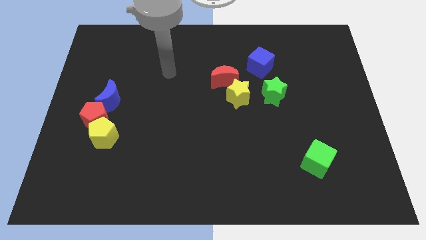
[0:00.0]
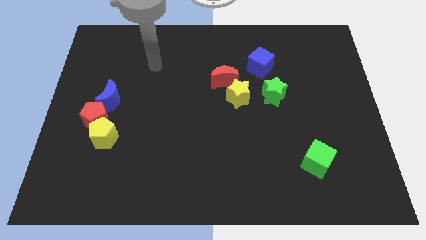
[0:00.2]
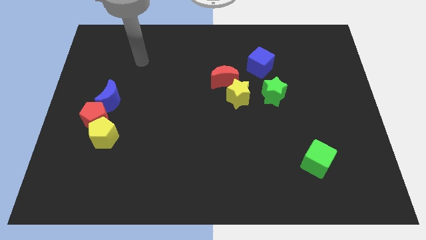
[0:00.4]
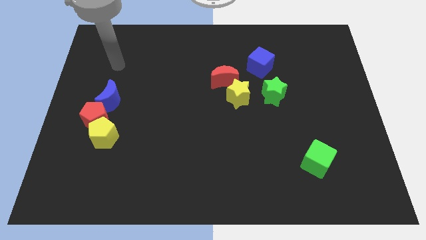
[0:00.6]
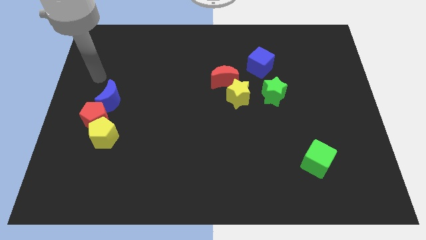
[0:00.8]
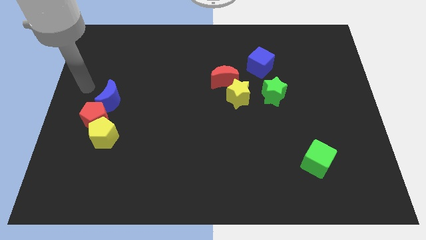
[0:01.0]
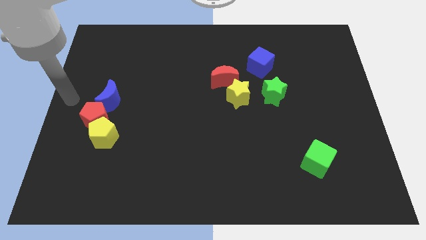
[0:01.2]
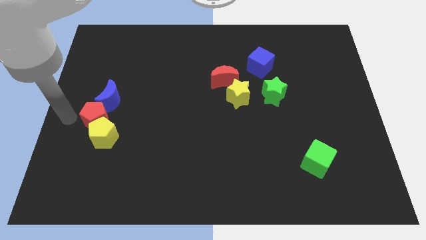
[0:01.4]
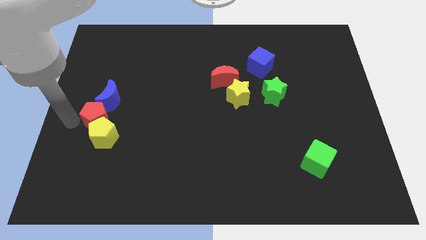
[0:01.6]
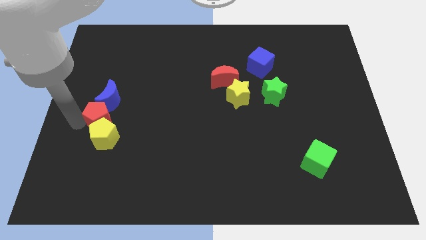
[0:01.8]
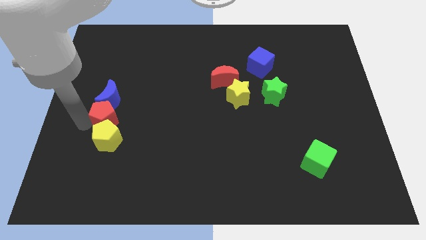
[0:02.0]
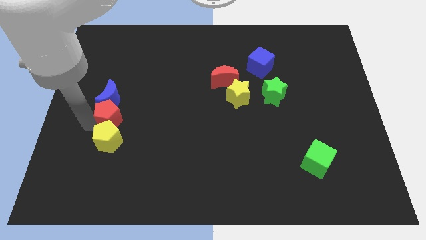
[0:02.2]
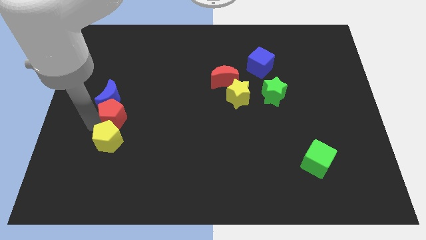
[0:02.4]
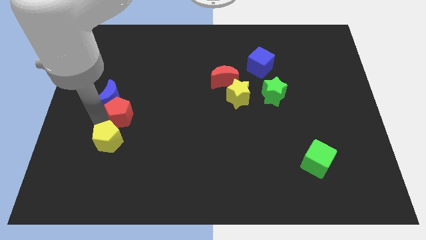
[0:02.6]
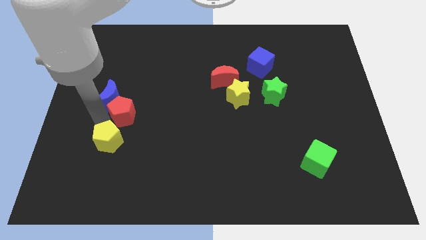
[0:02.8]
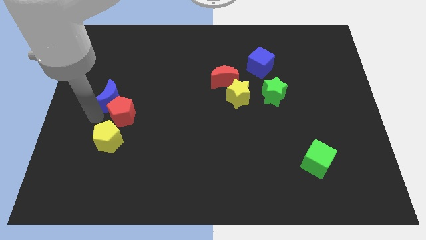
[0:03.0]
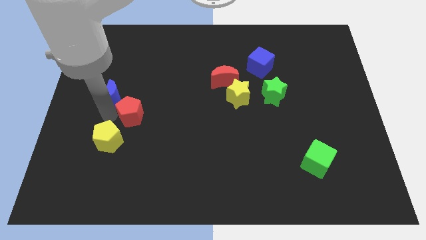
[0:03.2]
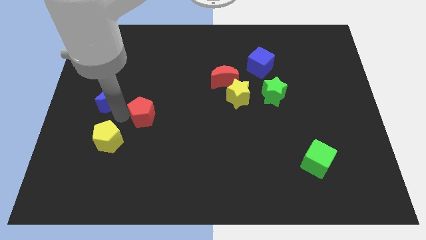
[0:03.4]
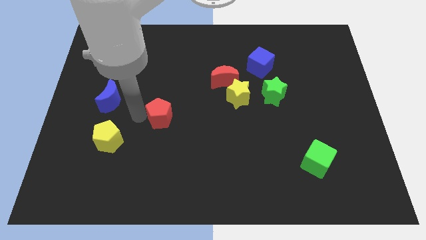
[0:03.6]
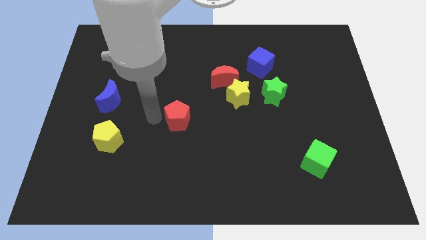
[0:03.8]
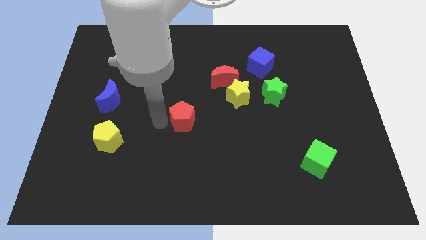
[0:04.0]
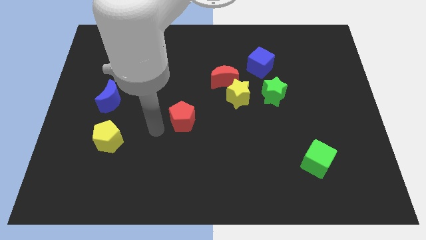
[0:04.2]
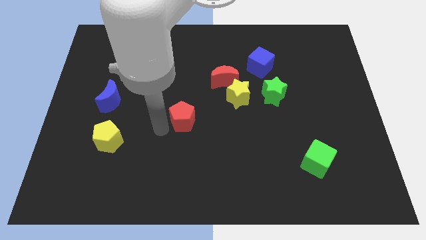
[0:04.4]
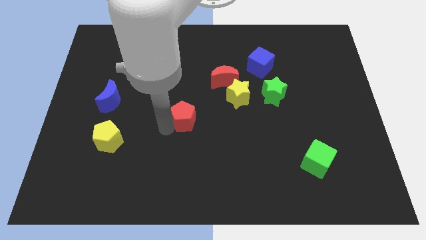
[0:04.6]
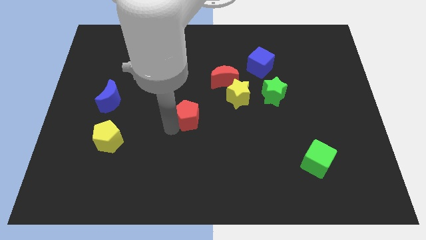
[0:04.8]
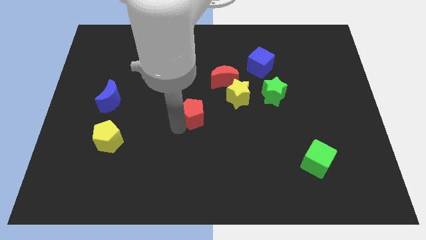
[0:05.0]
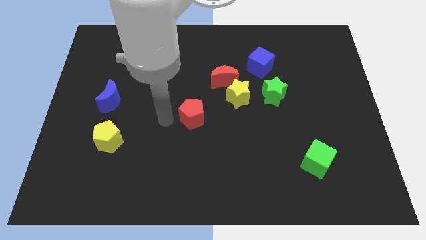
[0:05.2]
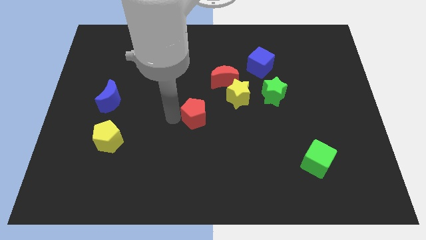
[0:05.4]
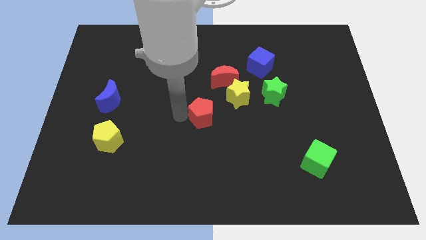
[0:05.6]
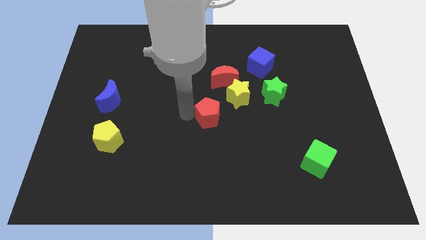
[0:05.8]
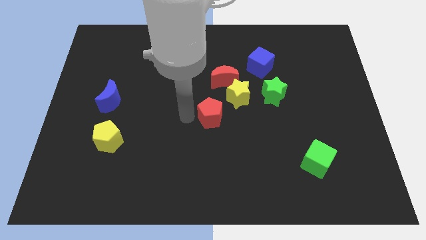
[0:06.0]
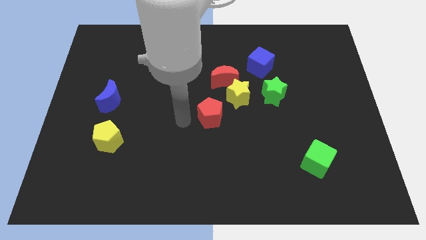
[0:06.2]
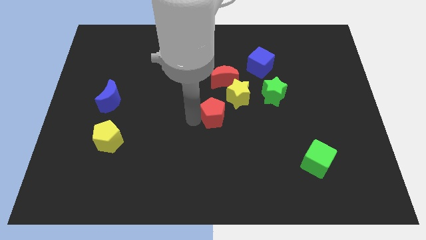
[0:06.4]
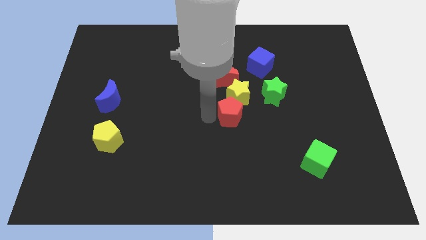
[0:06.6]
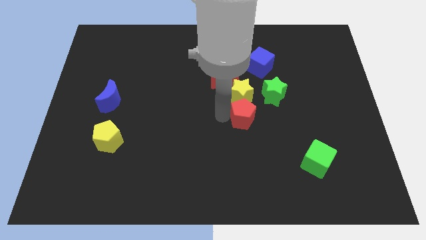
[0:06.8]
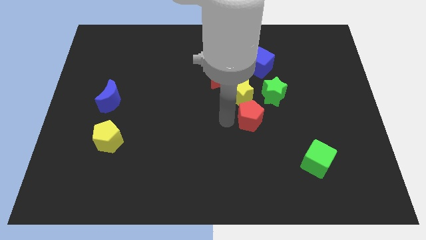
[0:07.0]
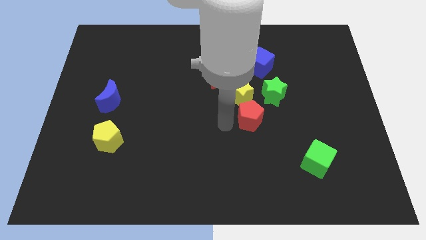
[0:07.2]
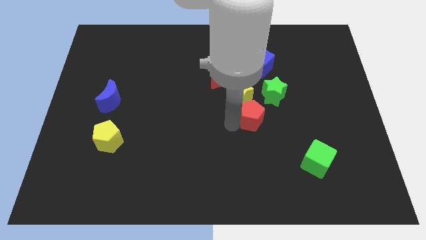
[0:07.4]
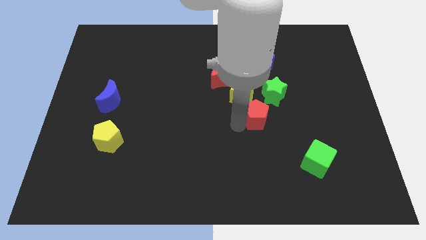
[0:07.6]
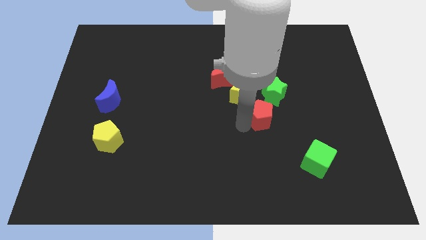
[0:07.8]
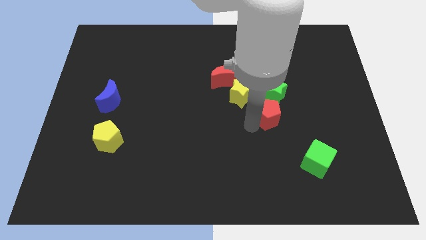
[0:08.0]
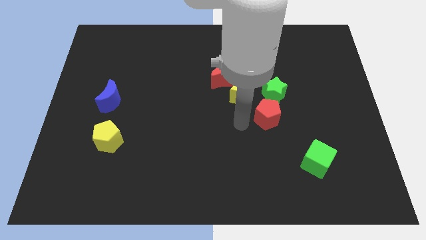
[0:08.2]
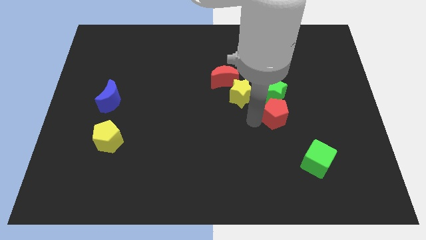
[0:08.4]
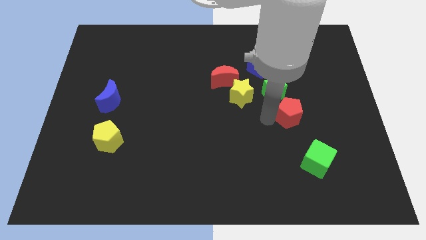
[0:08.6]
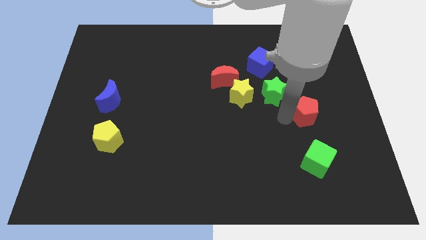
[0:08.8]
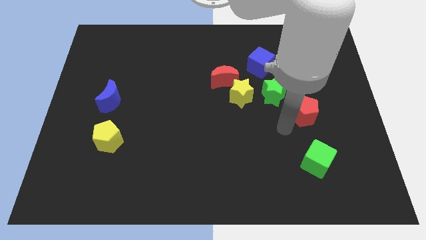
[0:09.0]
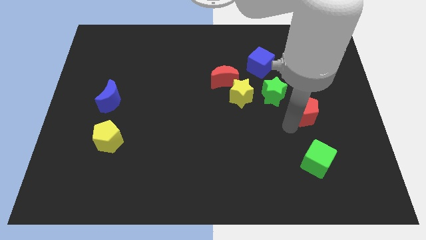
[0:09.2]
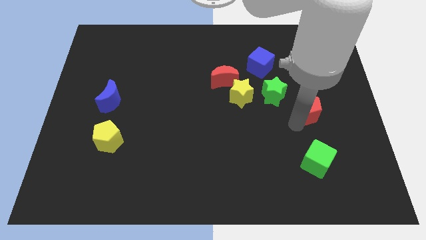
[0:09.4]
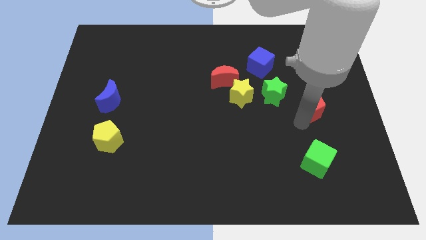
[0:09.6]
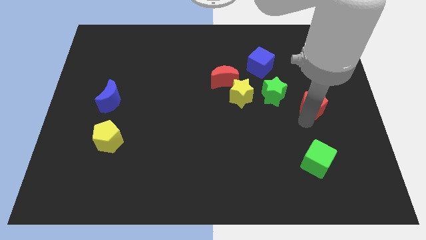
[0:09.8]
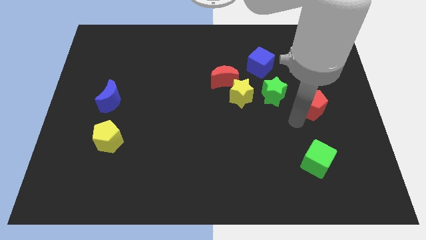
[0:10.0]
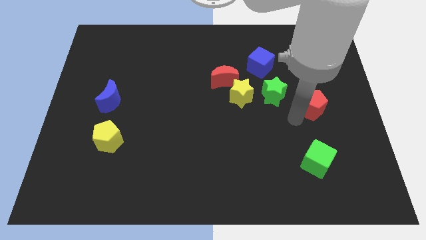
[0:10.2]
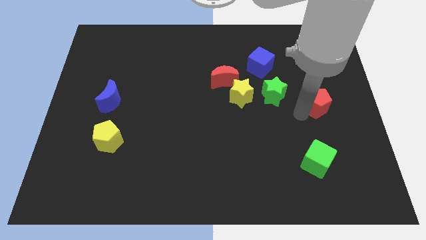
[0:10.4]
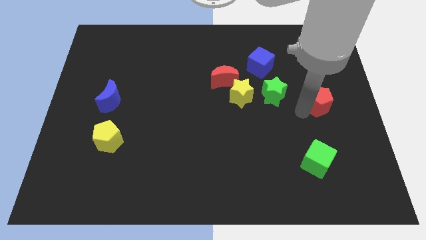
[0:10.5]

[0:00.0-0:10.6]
push the red pentagon to the right side

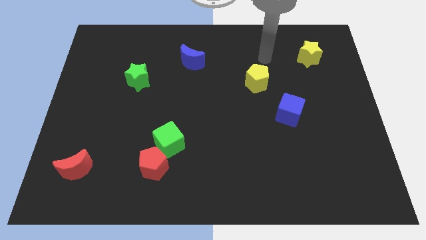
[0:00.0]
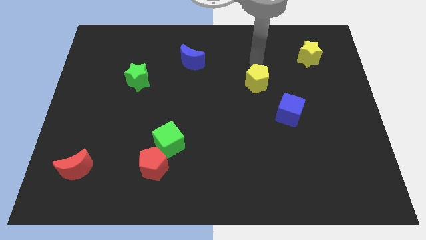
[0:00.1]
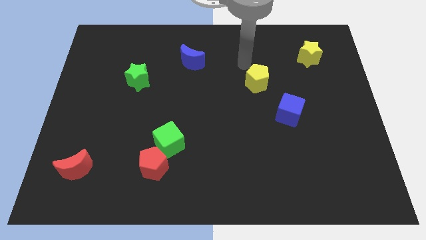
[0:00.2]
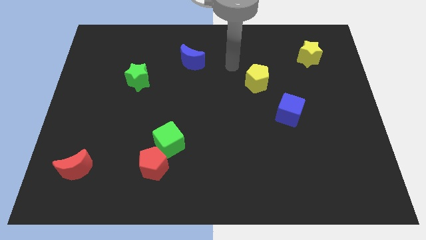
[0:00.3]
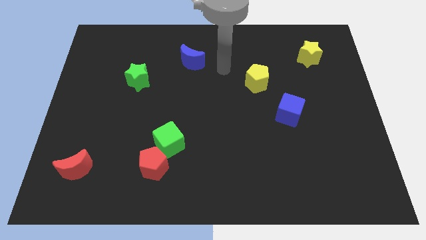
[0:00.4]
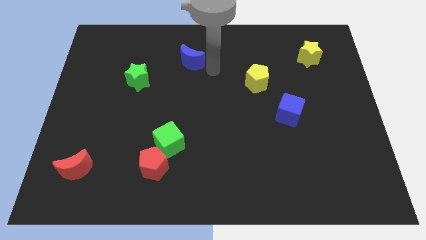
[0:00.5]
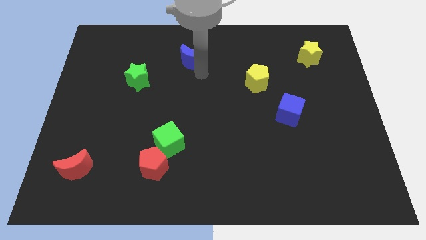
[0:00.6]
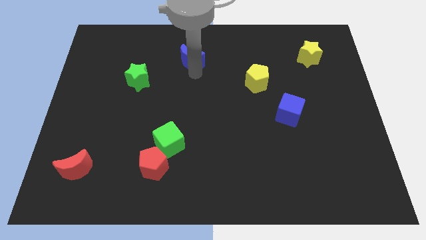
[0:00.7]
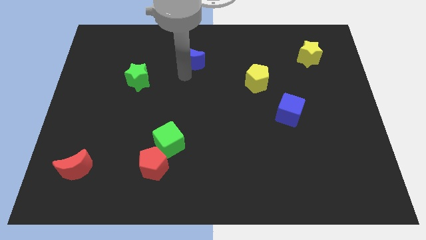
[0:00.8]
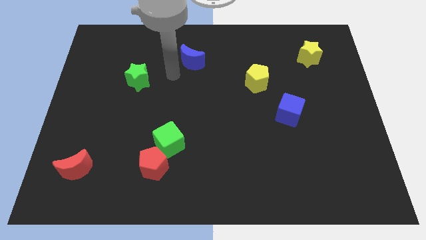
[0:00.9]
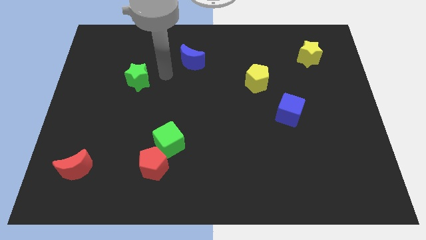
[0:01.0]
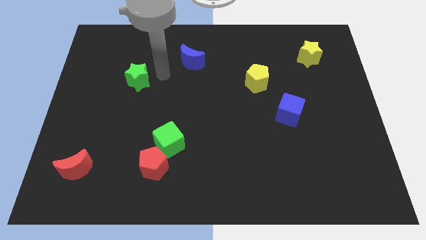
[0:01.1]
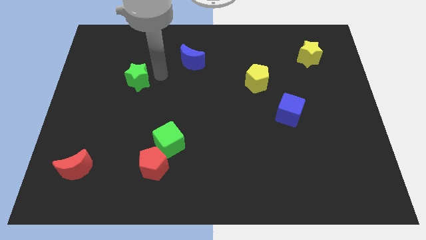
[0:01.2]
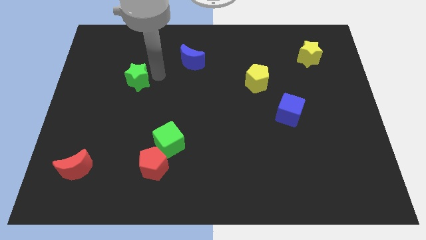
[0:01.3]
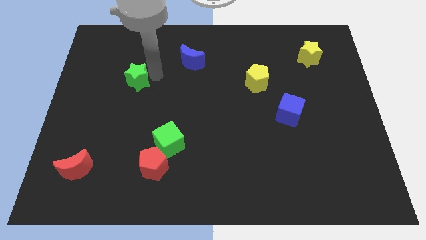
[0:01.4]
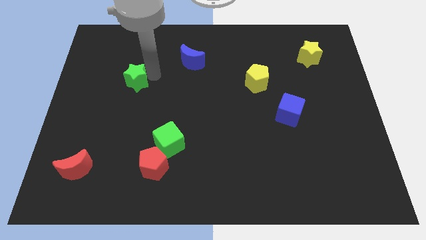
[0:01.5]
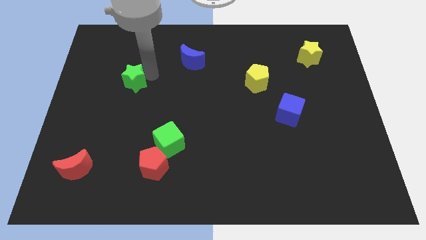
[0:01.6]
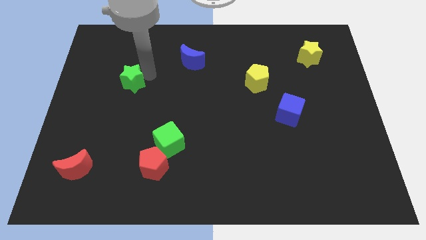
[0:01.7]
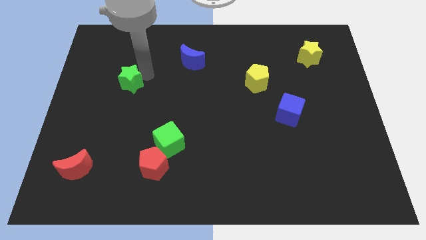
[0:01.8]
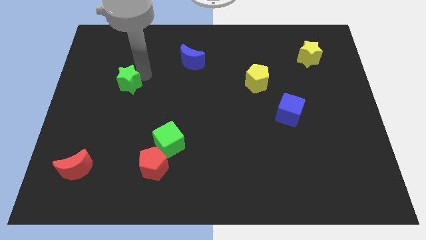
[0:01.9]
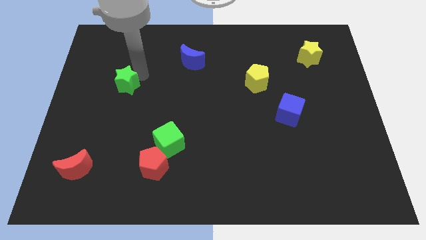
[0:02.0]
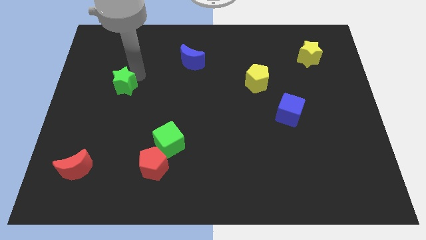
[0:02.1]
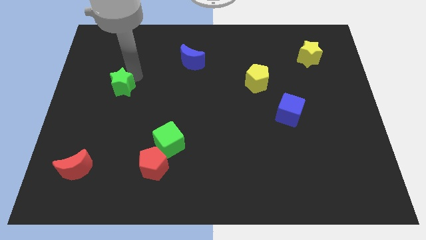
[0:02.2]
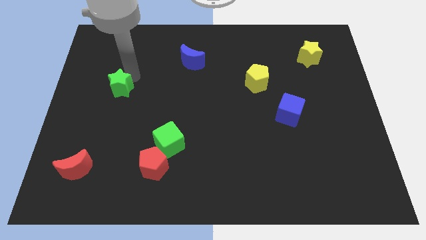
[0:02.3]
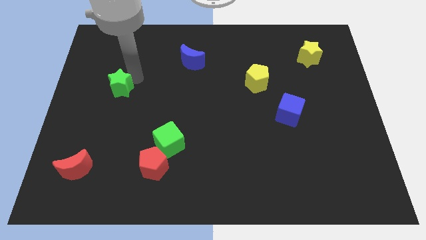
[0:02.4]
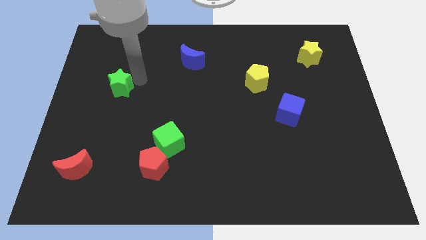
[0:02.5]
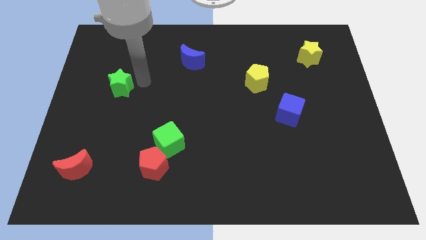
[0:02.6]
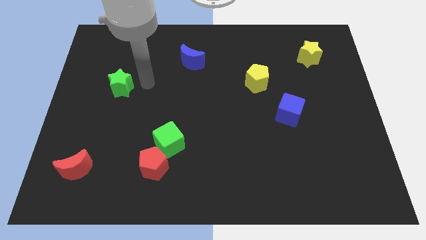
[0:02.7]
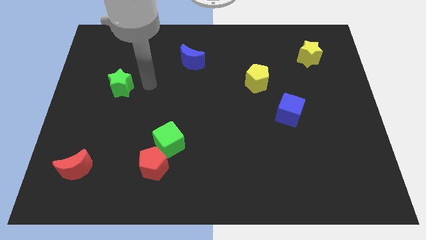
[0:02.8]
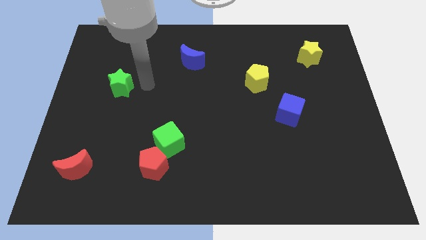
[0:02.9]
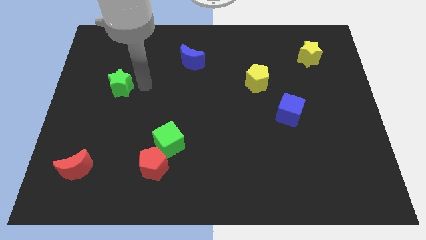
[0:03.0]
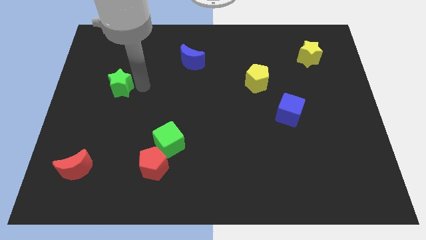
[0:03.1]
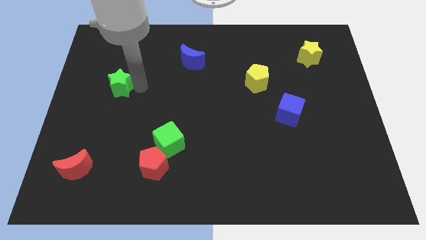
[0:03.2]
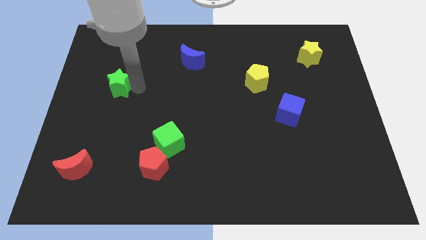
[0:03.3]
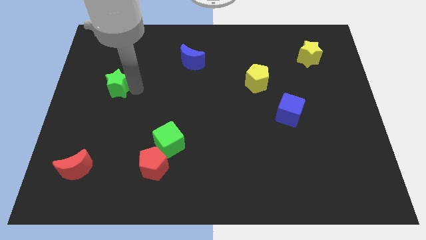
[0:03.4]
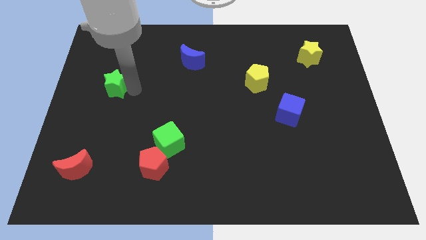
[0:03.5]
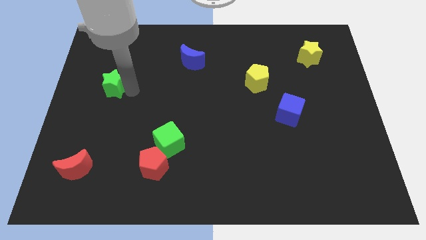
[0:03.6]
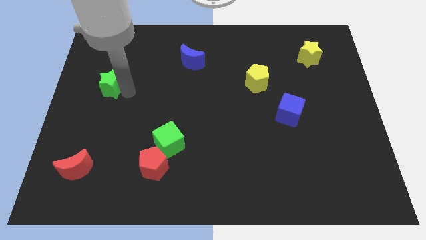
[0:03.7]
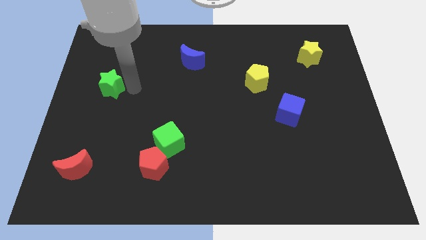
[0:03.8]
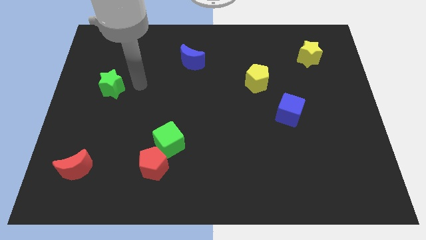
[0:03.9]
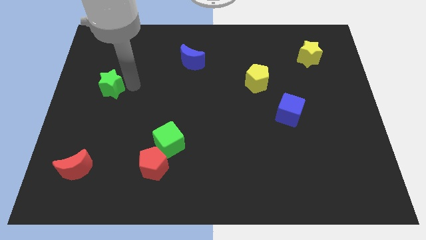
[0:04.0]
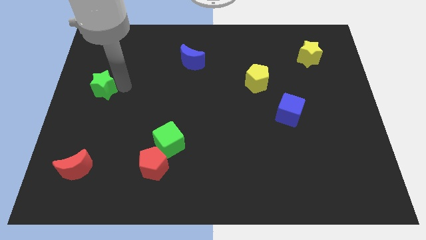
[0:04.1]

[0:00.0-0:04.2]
slide the green star to the left side
